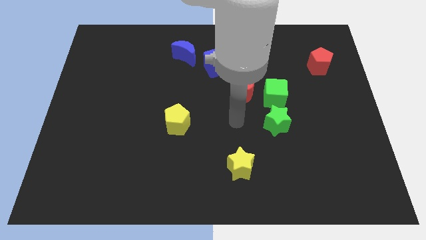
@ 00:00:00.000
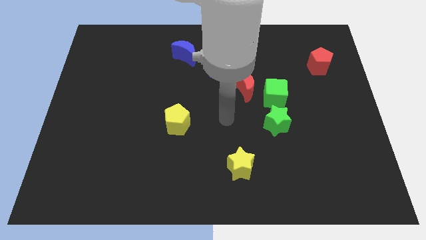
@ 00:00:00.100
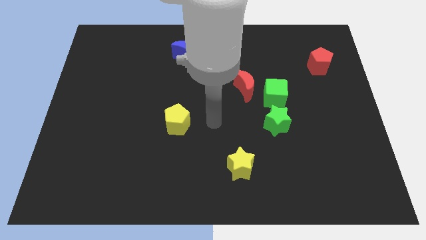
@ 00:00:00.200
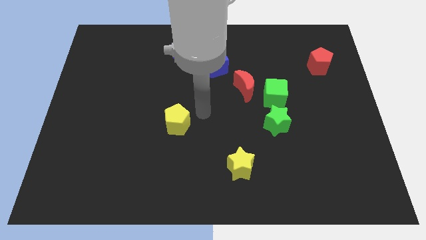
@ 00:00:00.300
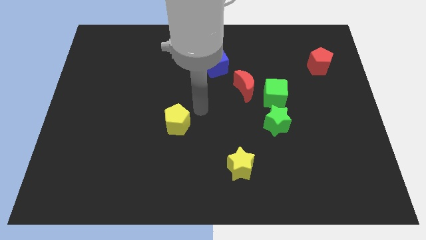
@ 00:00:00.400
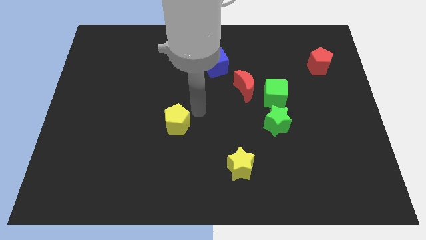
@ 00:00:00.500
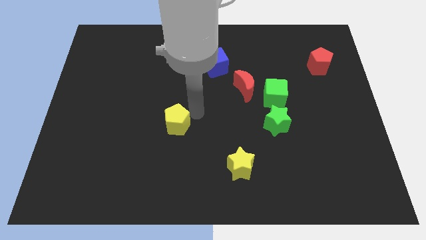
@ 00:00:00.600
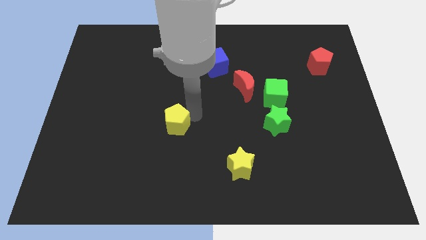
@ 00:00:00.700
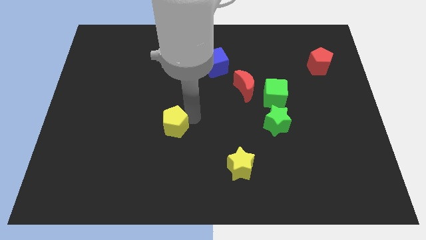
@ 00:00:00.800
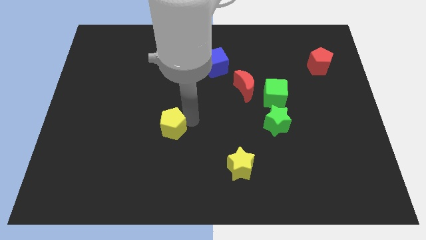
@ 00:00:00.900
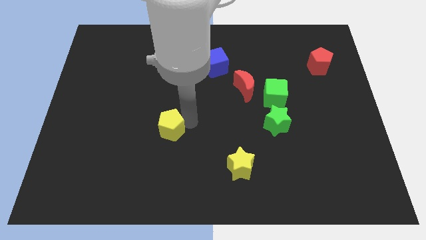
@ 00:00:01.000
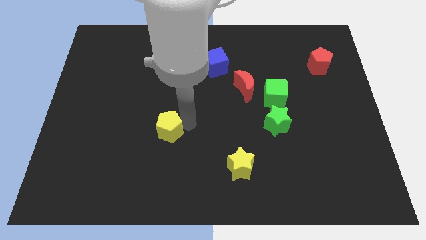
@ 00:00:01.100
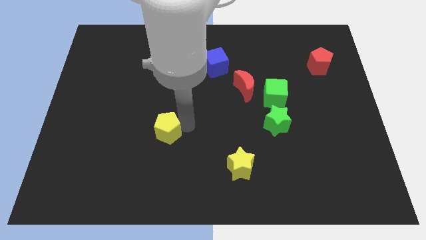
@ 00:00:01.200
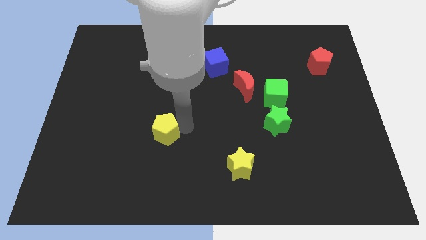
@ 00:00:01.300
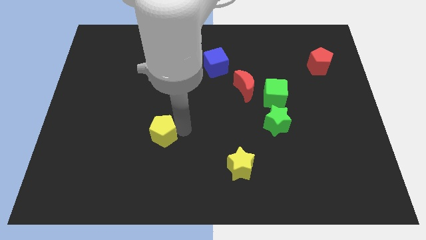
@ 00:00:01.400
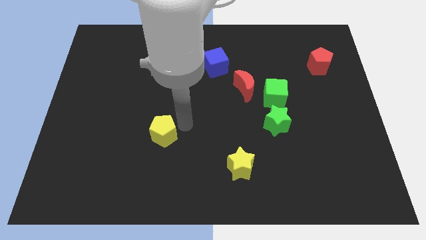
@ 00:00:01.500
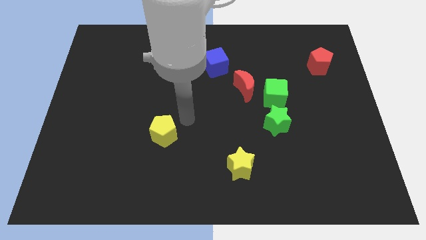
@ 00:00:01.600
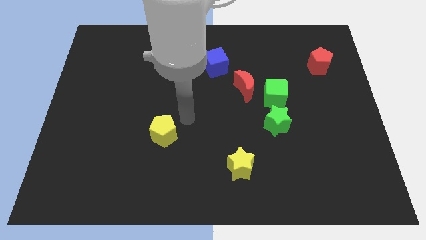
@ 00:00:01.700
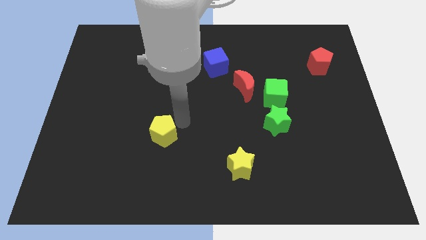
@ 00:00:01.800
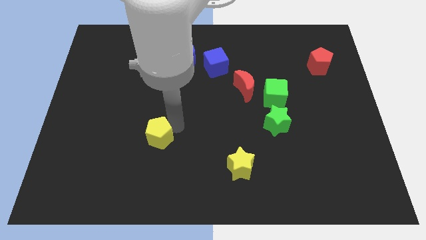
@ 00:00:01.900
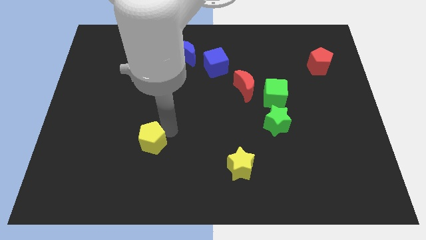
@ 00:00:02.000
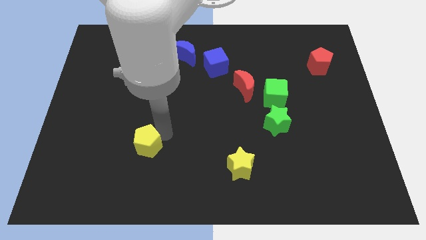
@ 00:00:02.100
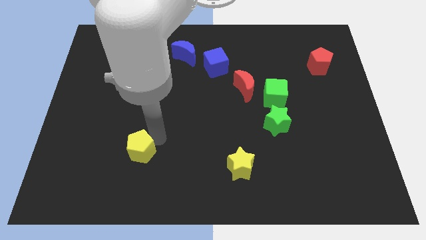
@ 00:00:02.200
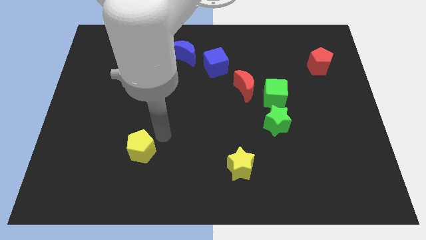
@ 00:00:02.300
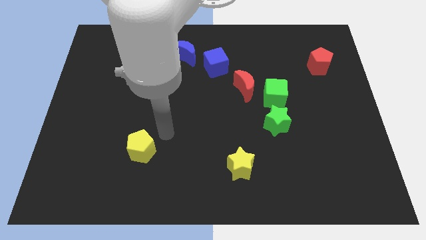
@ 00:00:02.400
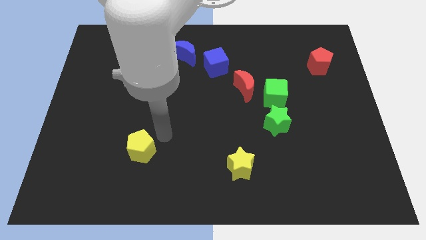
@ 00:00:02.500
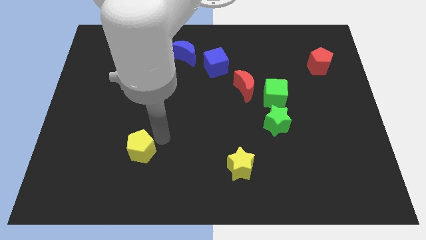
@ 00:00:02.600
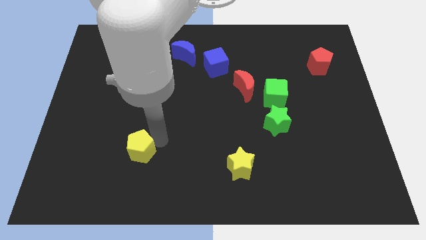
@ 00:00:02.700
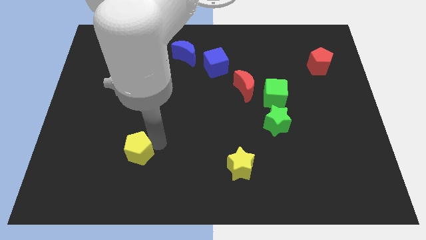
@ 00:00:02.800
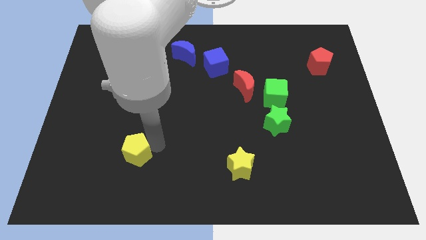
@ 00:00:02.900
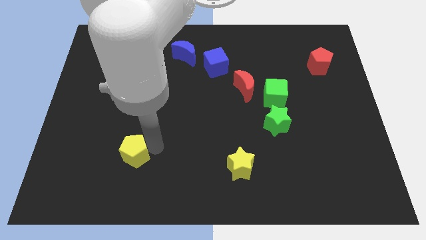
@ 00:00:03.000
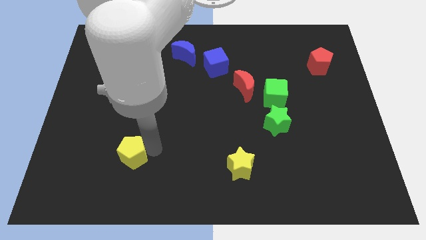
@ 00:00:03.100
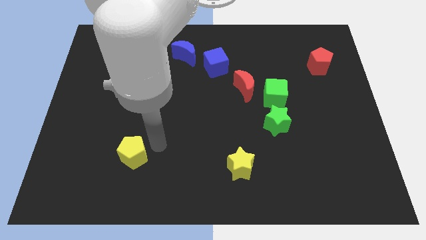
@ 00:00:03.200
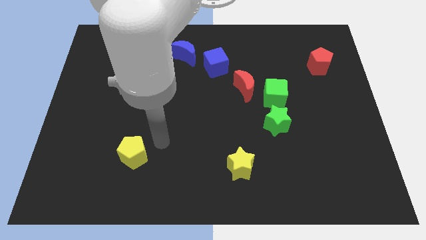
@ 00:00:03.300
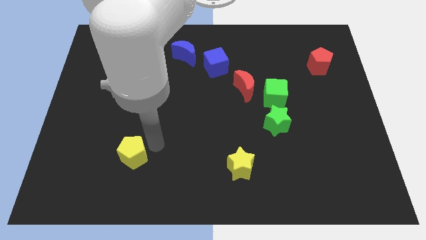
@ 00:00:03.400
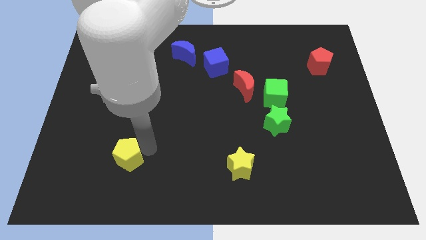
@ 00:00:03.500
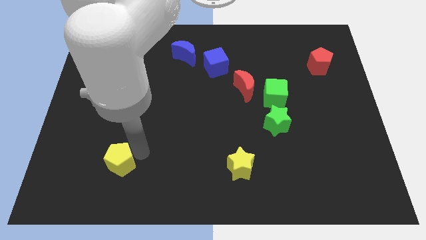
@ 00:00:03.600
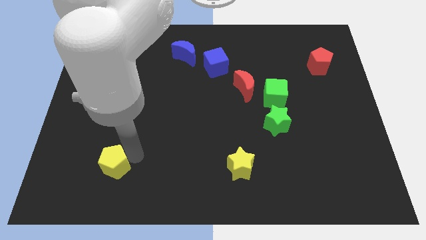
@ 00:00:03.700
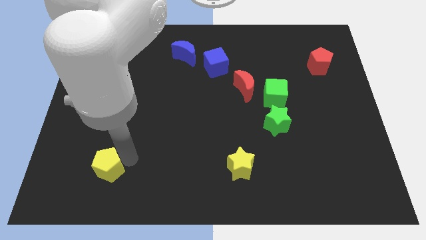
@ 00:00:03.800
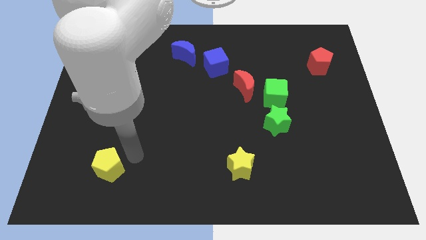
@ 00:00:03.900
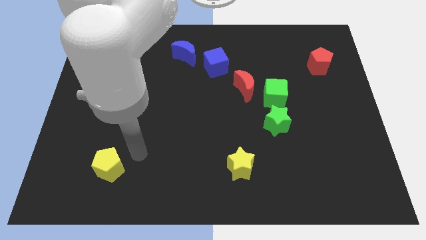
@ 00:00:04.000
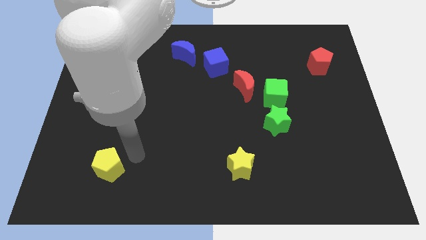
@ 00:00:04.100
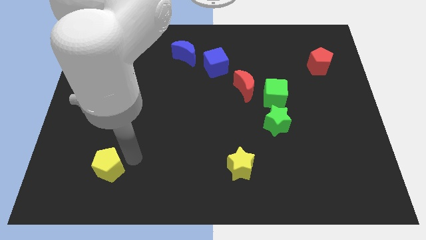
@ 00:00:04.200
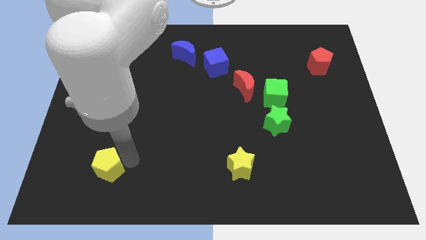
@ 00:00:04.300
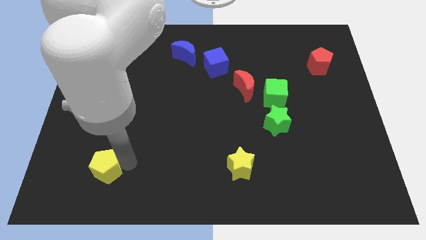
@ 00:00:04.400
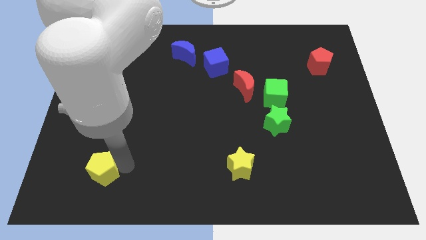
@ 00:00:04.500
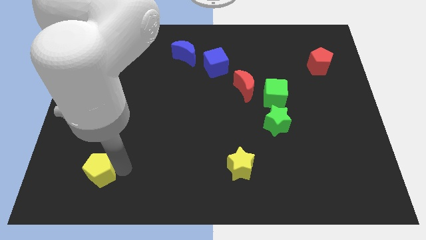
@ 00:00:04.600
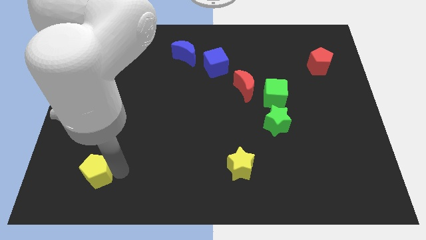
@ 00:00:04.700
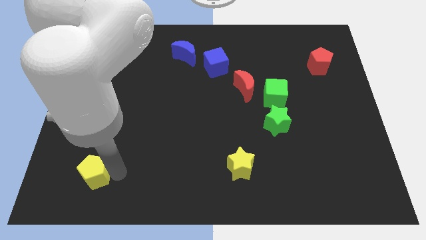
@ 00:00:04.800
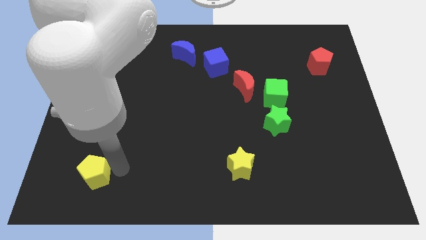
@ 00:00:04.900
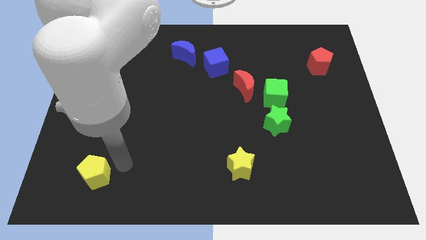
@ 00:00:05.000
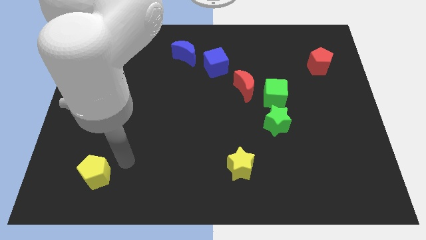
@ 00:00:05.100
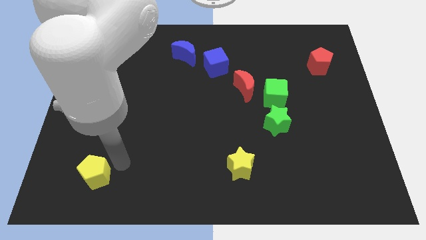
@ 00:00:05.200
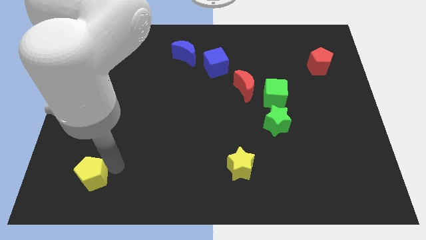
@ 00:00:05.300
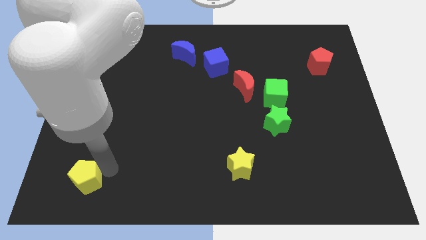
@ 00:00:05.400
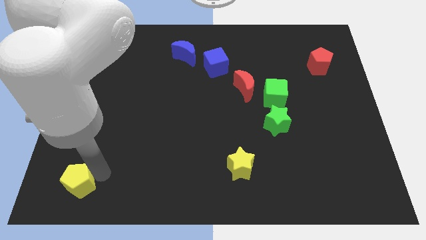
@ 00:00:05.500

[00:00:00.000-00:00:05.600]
move the yellow pentagon to the lower left corner

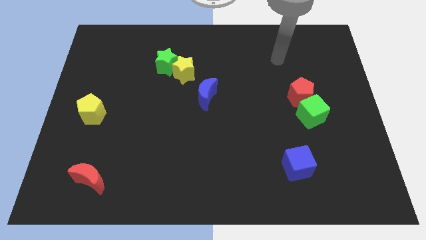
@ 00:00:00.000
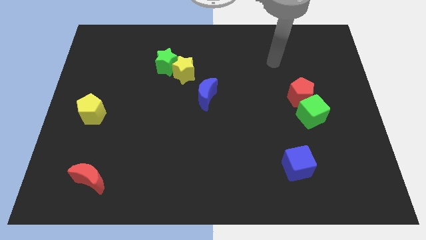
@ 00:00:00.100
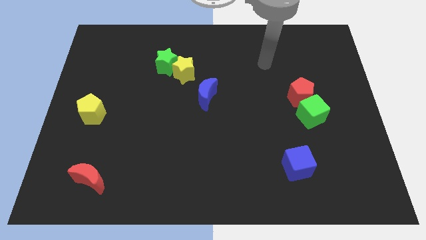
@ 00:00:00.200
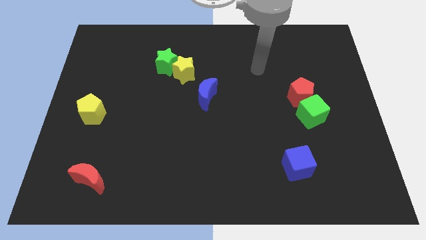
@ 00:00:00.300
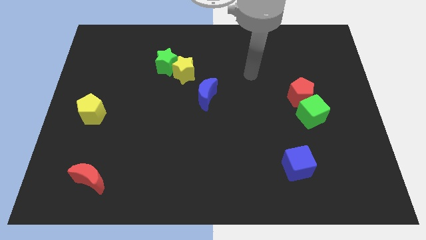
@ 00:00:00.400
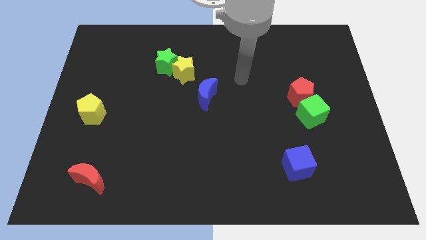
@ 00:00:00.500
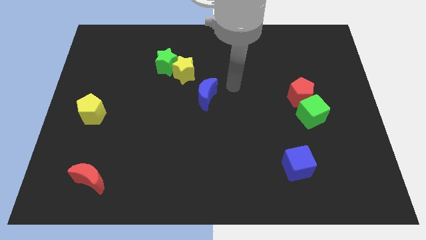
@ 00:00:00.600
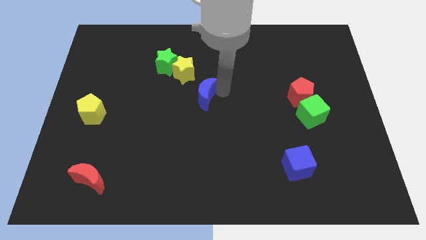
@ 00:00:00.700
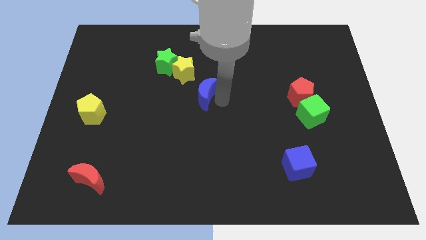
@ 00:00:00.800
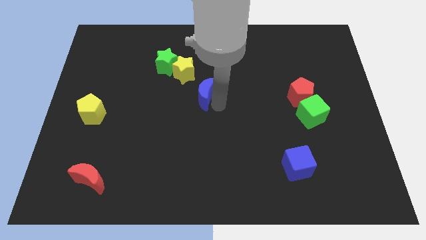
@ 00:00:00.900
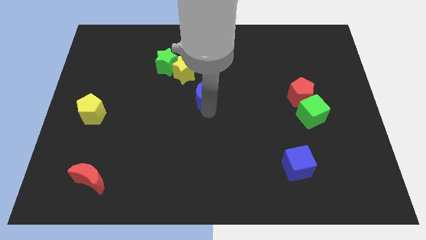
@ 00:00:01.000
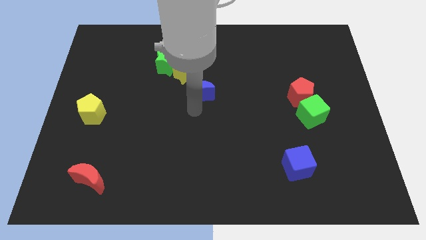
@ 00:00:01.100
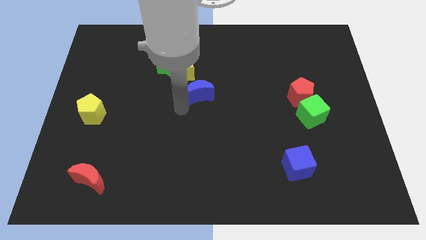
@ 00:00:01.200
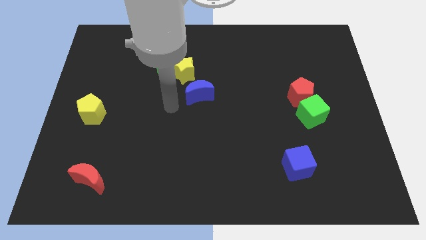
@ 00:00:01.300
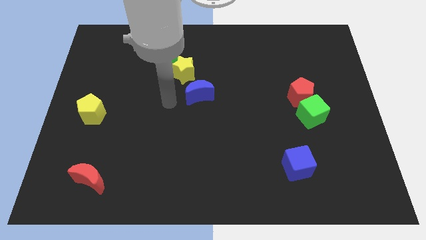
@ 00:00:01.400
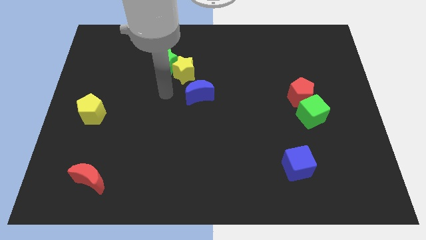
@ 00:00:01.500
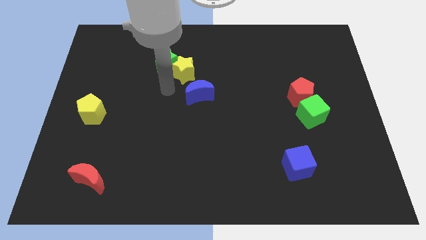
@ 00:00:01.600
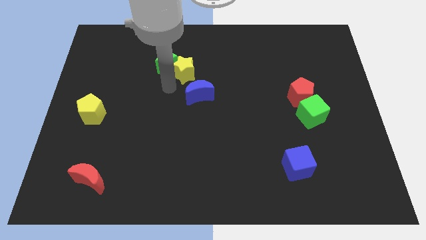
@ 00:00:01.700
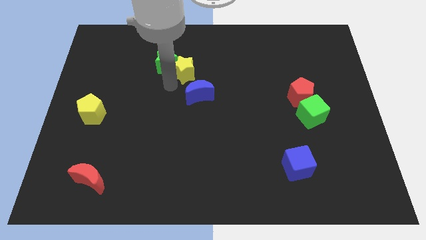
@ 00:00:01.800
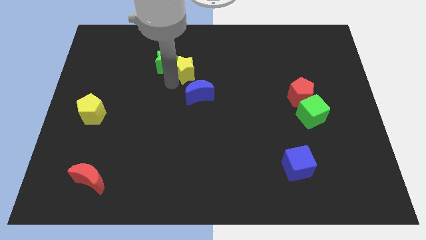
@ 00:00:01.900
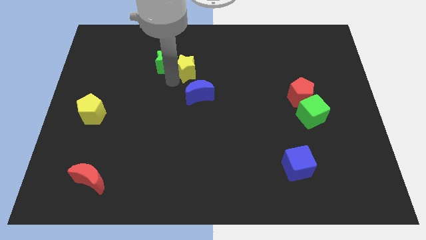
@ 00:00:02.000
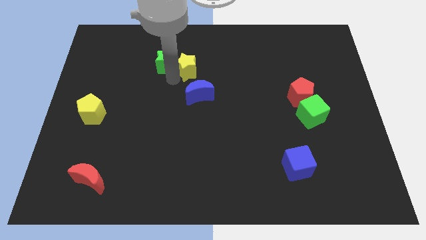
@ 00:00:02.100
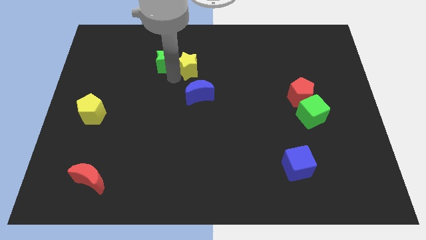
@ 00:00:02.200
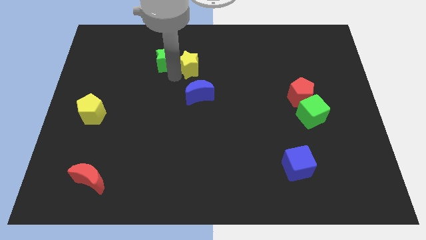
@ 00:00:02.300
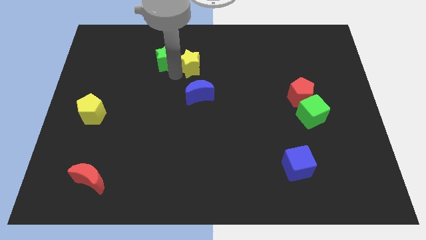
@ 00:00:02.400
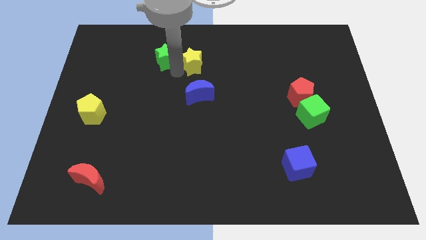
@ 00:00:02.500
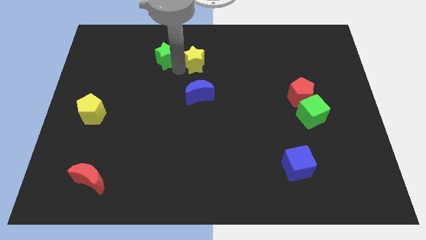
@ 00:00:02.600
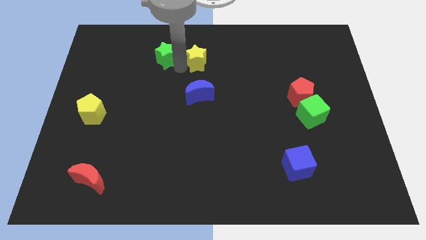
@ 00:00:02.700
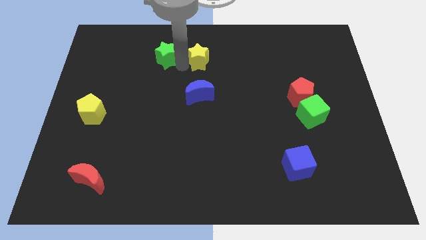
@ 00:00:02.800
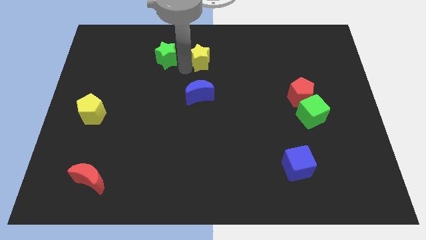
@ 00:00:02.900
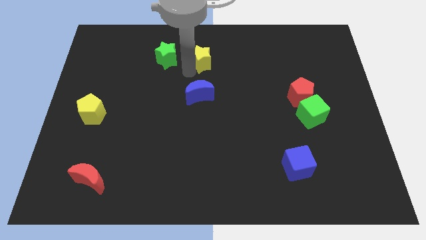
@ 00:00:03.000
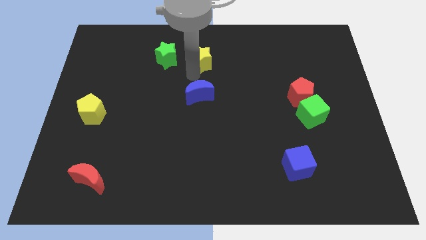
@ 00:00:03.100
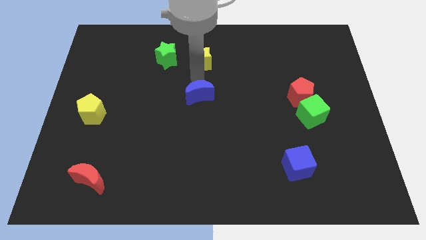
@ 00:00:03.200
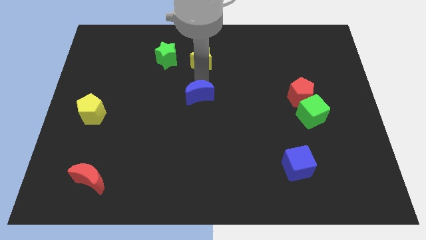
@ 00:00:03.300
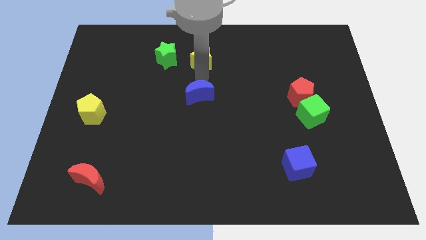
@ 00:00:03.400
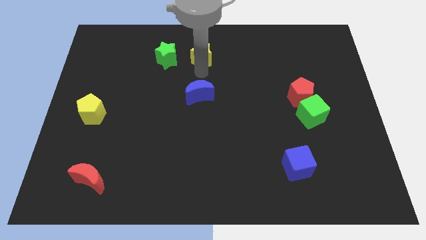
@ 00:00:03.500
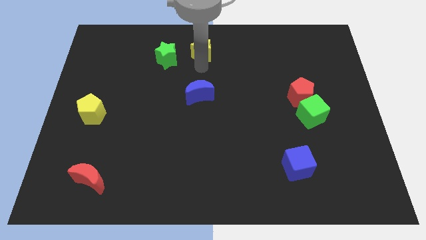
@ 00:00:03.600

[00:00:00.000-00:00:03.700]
move the yellow star to the towards your base
